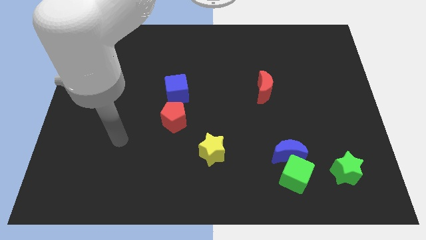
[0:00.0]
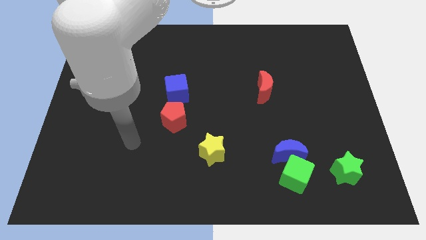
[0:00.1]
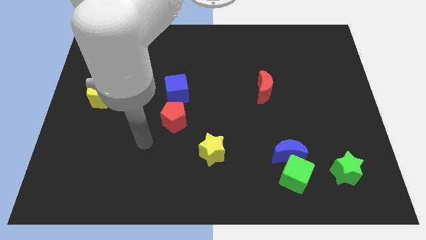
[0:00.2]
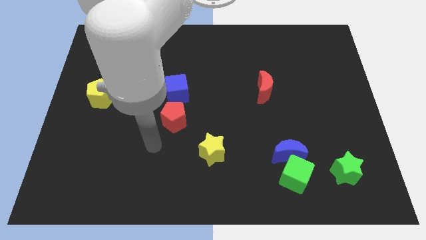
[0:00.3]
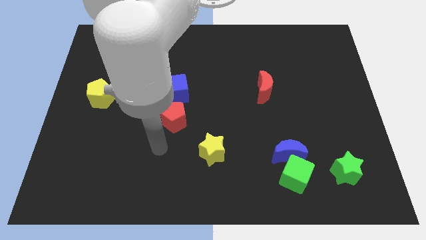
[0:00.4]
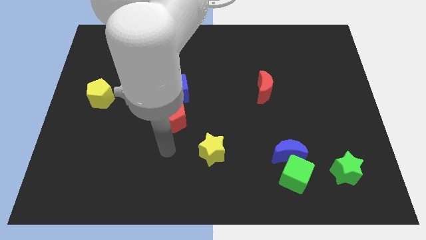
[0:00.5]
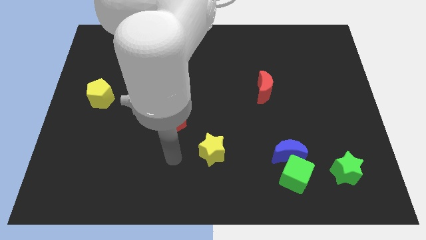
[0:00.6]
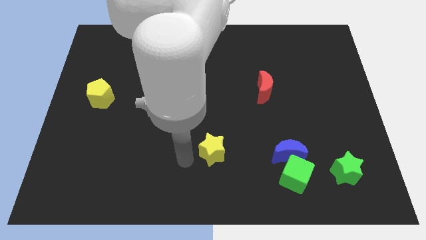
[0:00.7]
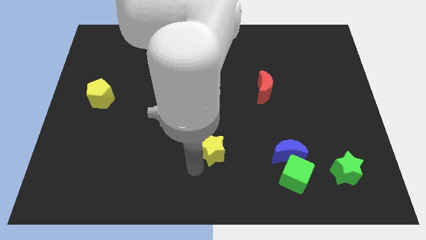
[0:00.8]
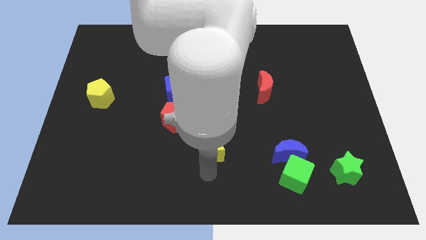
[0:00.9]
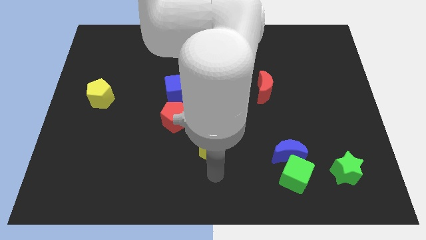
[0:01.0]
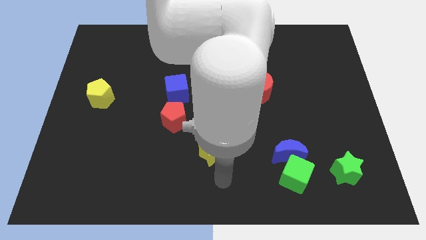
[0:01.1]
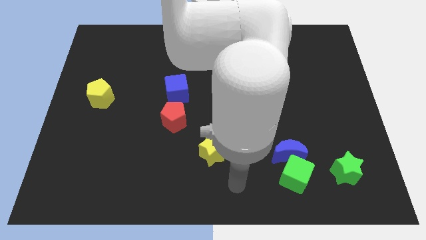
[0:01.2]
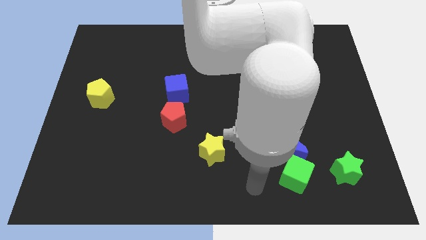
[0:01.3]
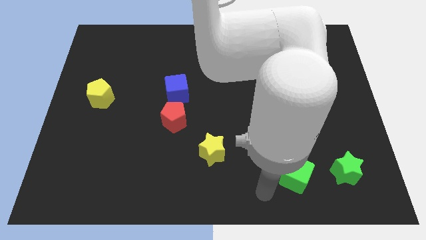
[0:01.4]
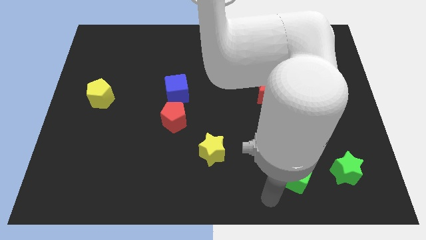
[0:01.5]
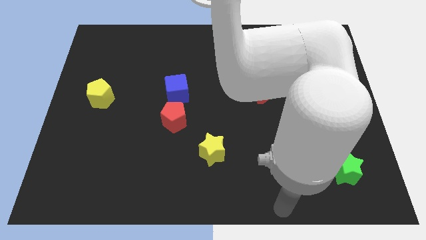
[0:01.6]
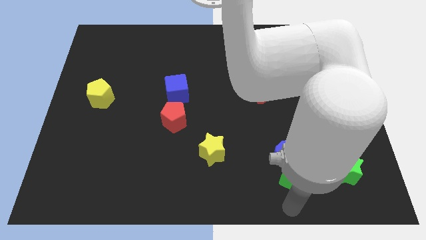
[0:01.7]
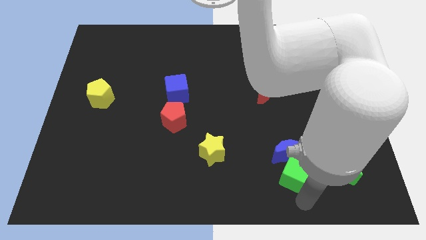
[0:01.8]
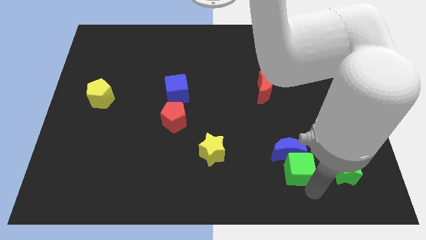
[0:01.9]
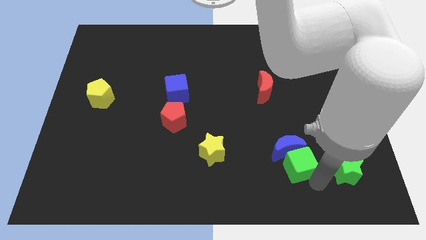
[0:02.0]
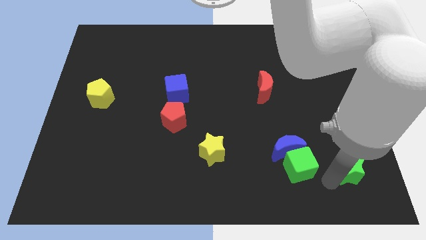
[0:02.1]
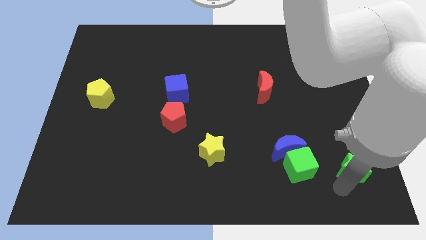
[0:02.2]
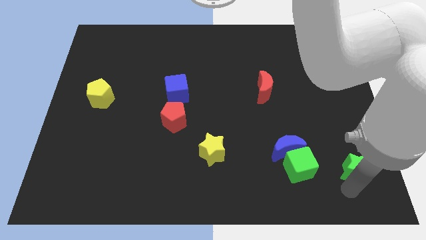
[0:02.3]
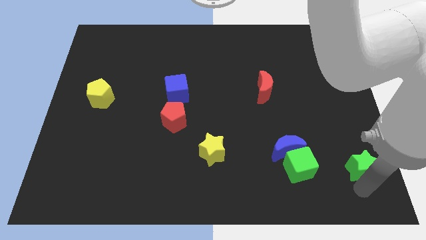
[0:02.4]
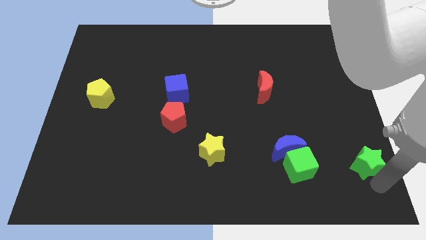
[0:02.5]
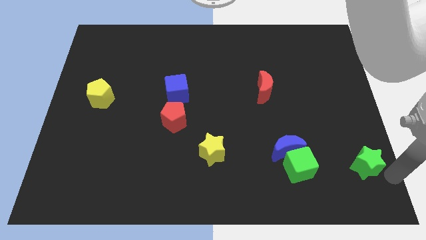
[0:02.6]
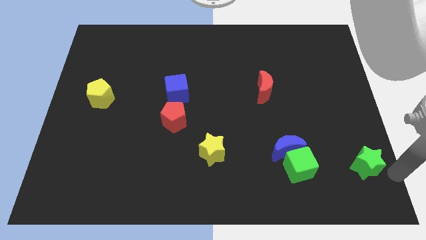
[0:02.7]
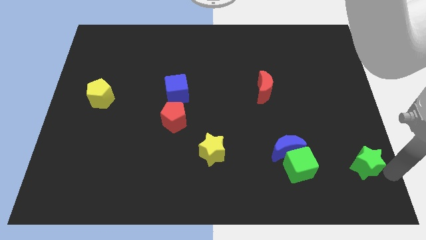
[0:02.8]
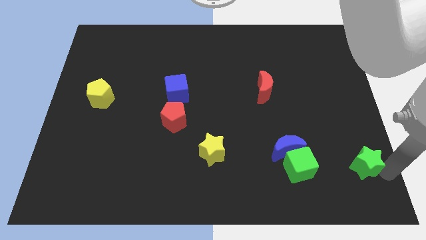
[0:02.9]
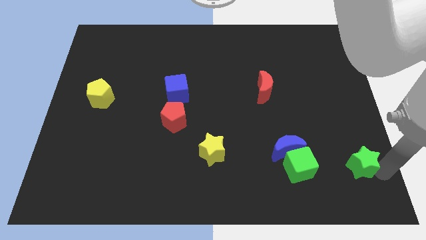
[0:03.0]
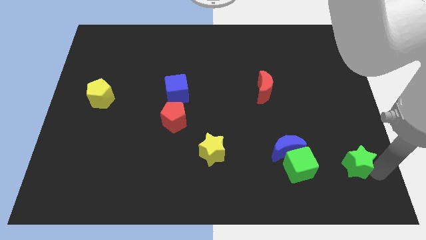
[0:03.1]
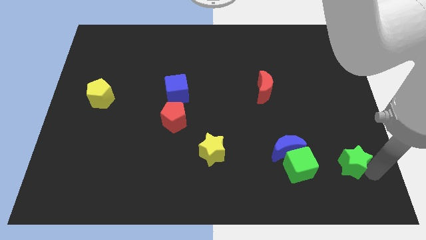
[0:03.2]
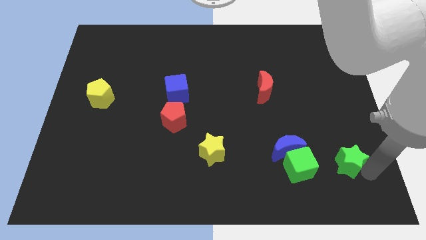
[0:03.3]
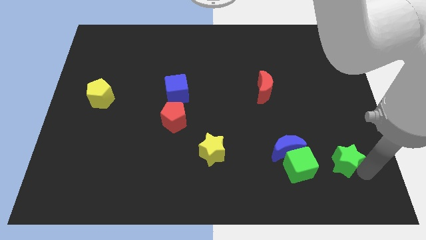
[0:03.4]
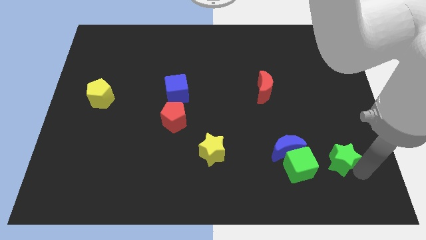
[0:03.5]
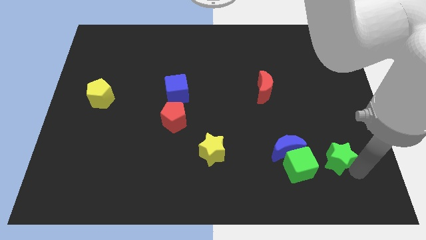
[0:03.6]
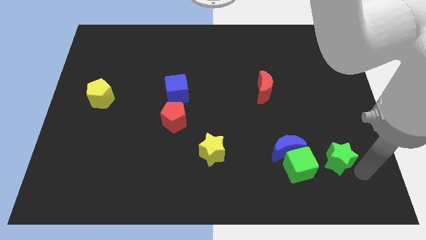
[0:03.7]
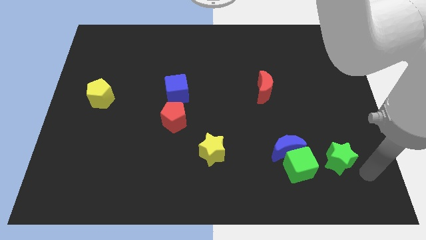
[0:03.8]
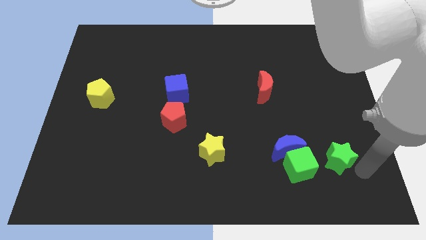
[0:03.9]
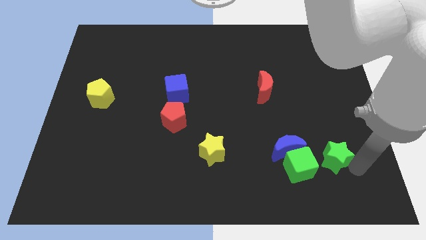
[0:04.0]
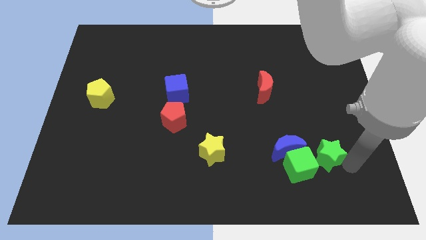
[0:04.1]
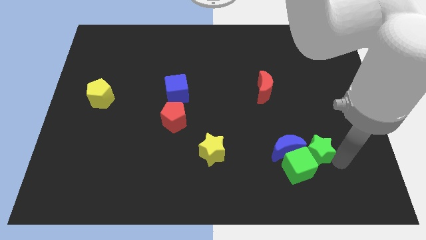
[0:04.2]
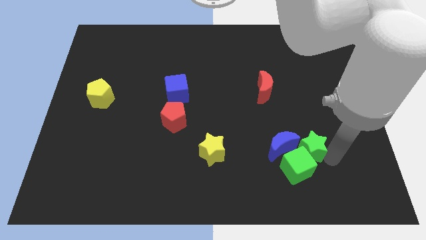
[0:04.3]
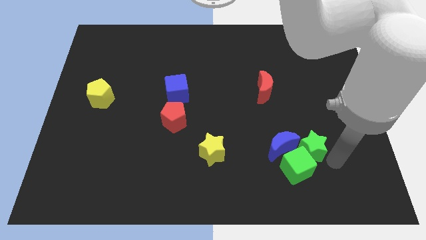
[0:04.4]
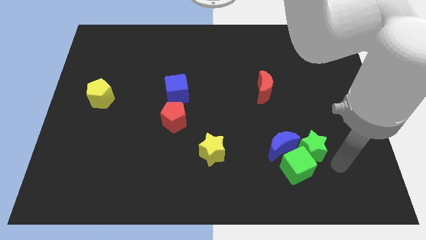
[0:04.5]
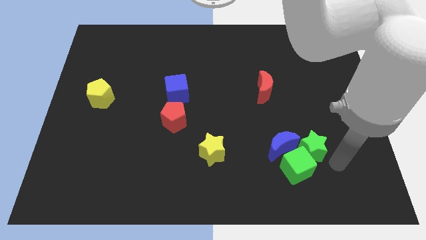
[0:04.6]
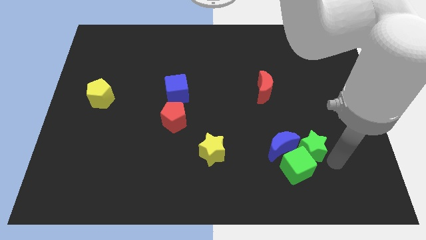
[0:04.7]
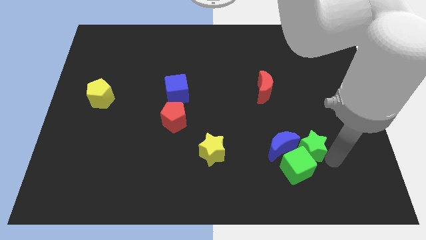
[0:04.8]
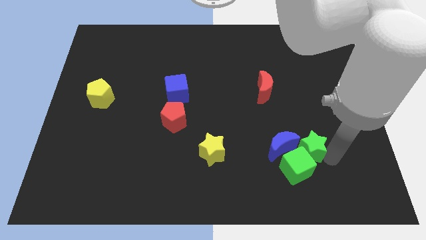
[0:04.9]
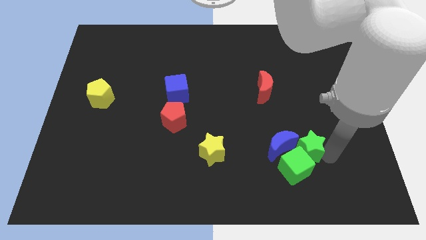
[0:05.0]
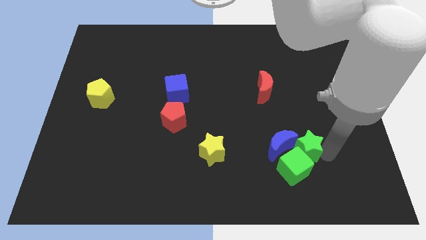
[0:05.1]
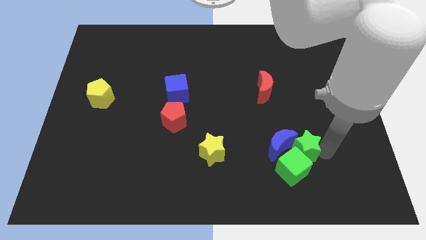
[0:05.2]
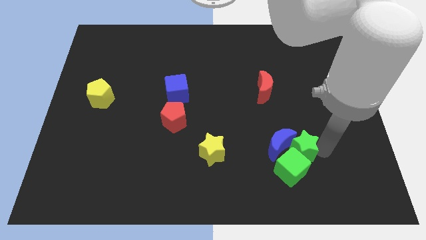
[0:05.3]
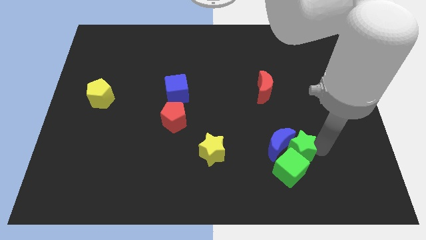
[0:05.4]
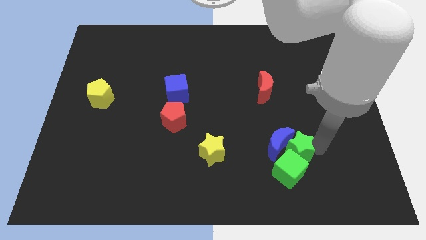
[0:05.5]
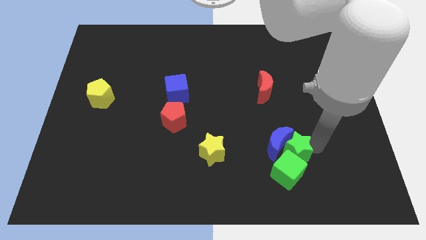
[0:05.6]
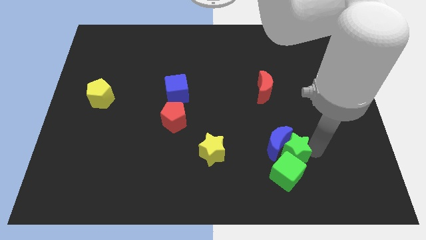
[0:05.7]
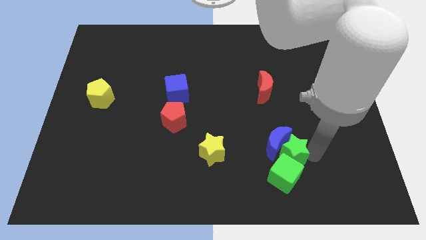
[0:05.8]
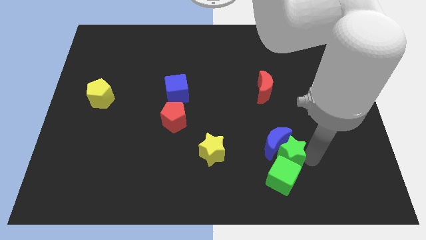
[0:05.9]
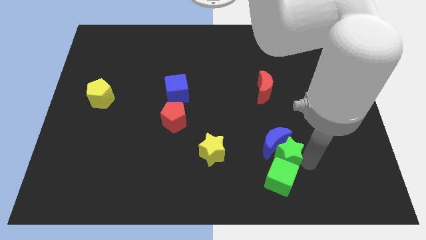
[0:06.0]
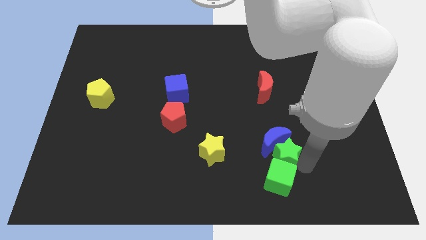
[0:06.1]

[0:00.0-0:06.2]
put the green star to the right of the yellow star

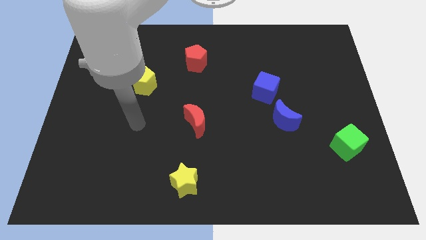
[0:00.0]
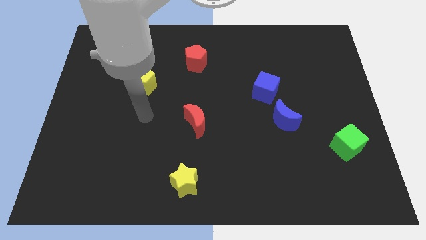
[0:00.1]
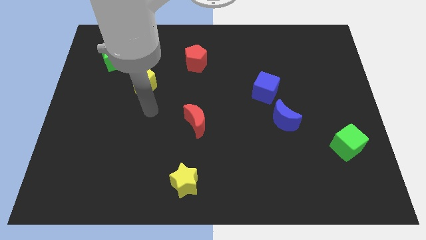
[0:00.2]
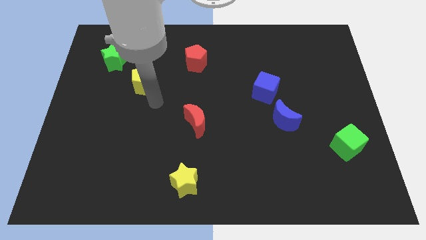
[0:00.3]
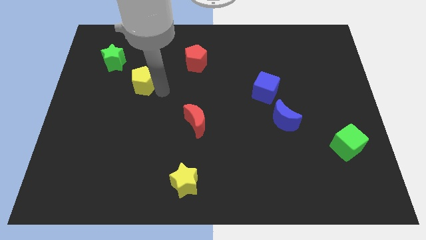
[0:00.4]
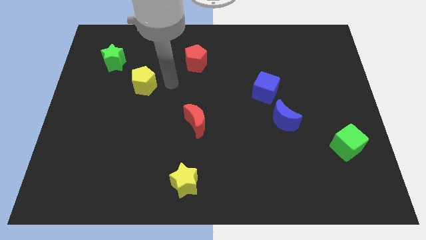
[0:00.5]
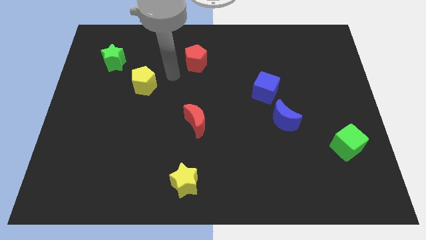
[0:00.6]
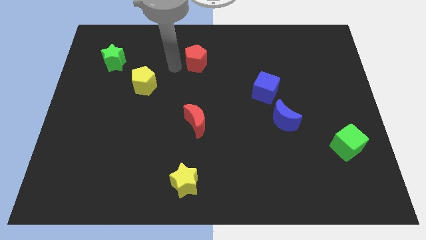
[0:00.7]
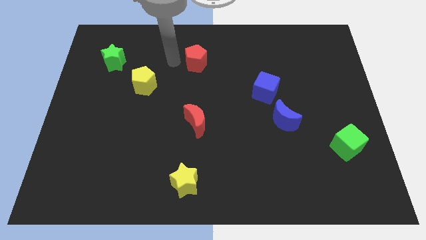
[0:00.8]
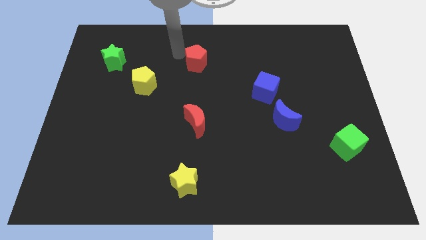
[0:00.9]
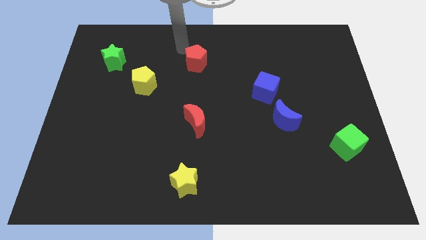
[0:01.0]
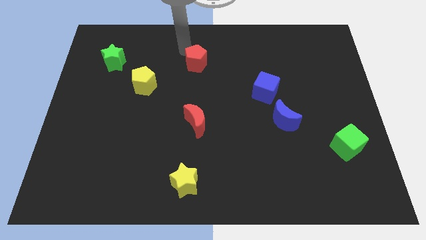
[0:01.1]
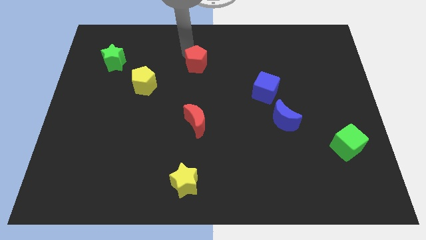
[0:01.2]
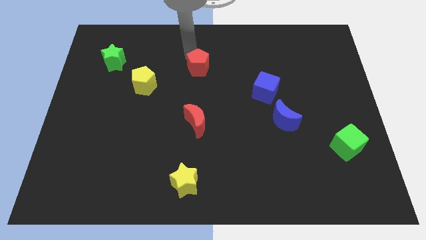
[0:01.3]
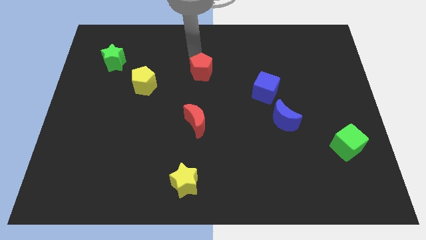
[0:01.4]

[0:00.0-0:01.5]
push the red pentagon above the red moon
